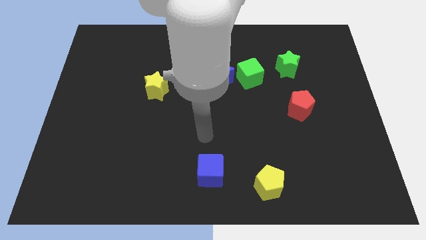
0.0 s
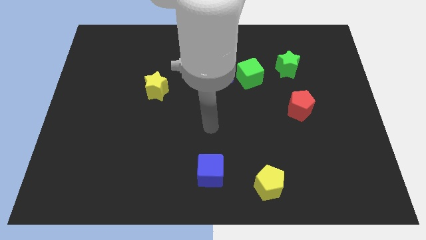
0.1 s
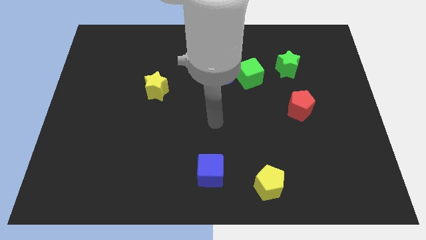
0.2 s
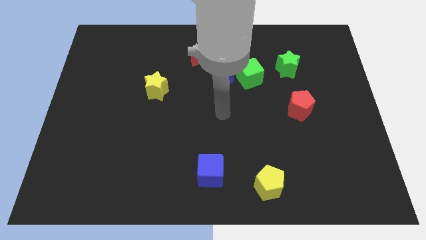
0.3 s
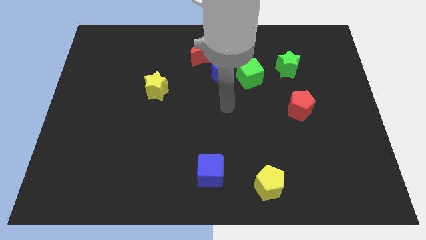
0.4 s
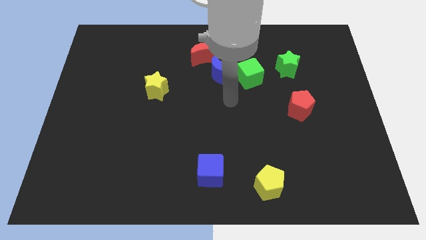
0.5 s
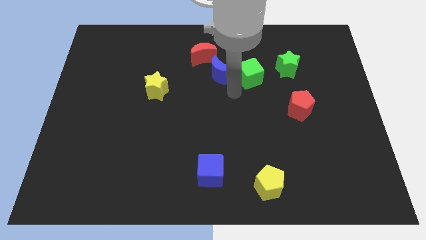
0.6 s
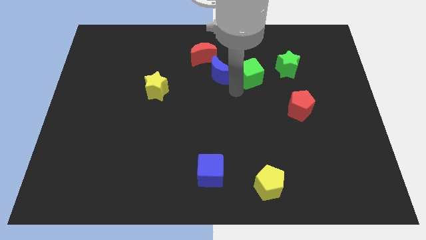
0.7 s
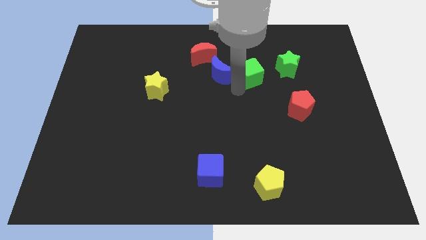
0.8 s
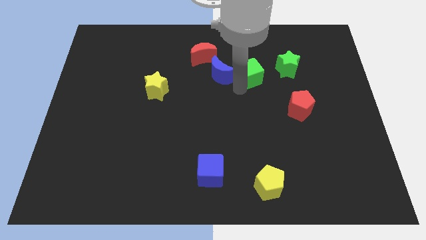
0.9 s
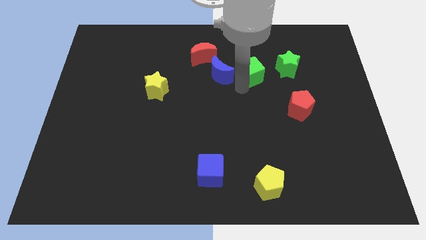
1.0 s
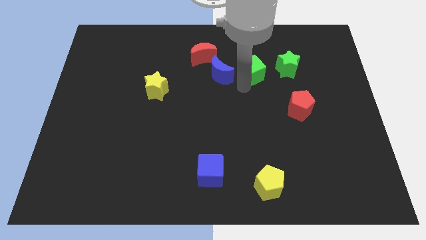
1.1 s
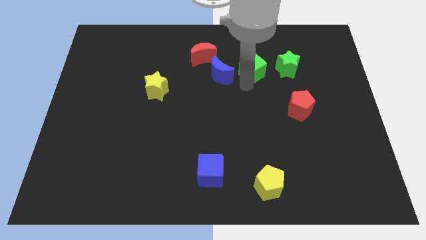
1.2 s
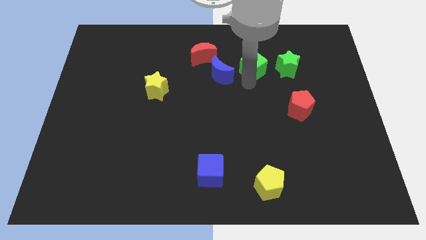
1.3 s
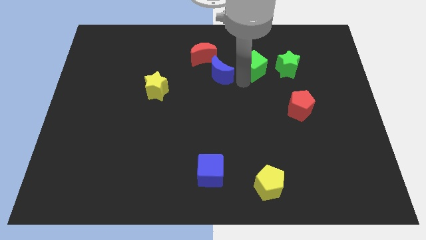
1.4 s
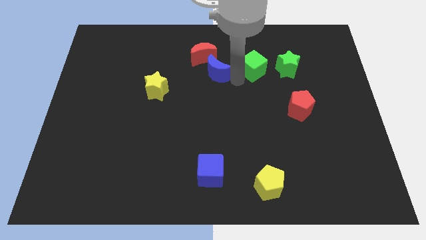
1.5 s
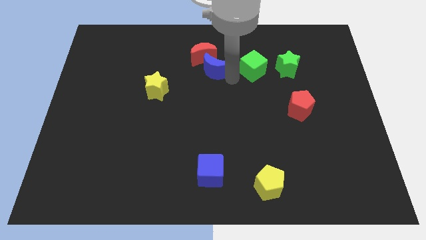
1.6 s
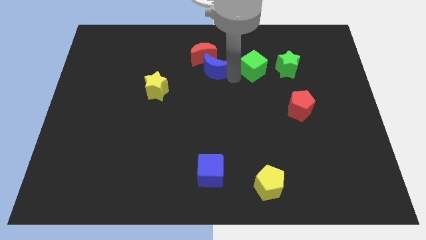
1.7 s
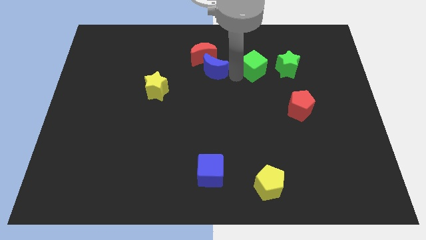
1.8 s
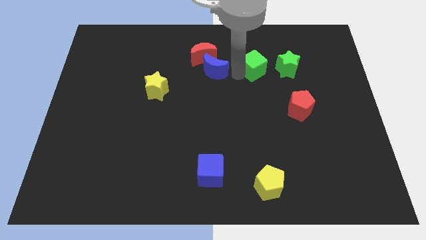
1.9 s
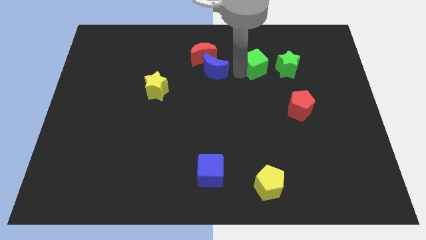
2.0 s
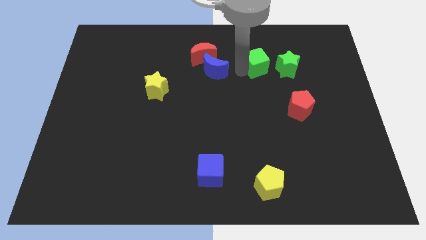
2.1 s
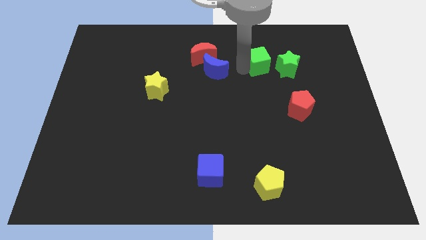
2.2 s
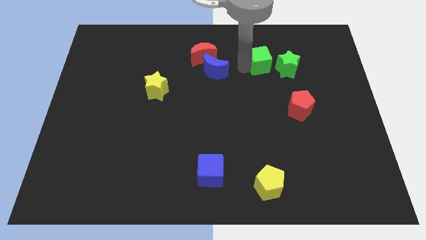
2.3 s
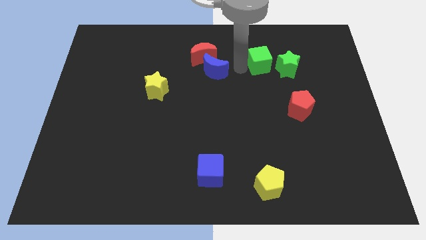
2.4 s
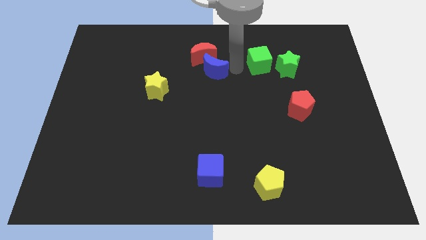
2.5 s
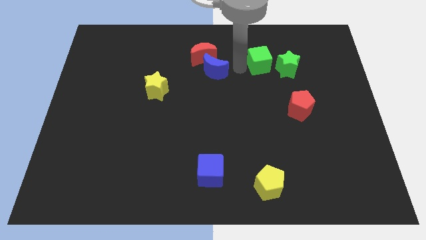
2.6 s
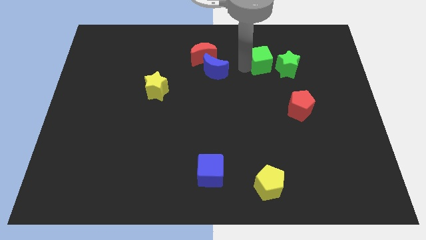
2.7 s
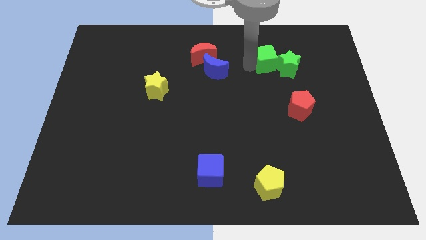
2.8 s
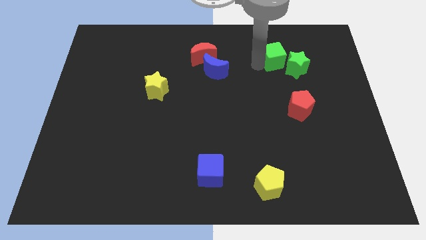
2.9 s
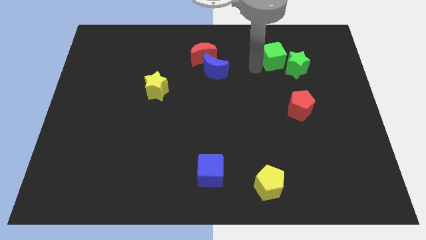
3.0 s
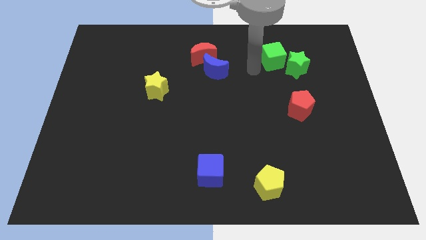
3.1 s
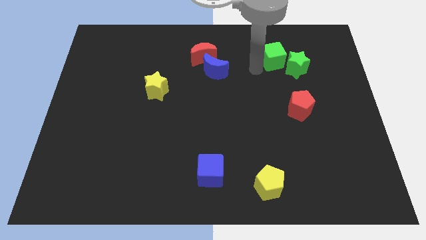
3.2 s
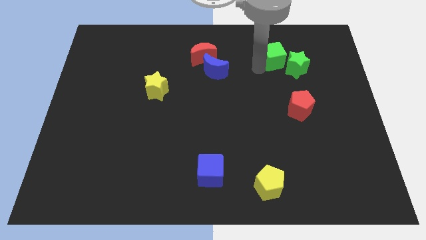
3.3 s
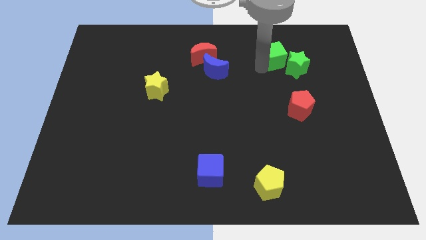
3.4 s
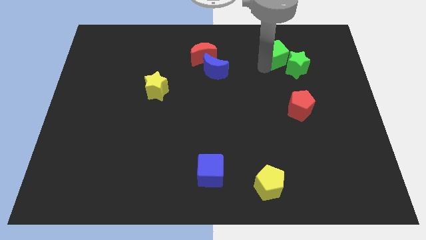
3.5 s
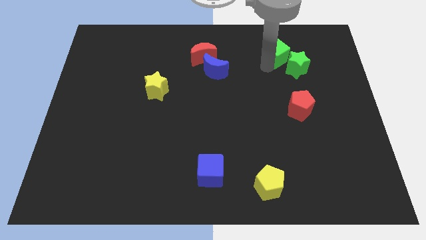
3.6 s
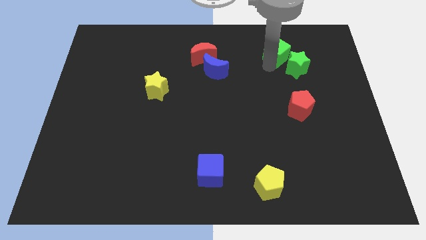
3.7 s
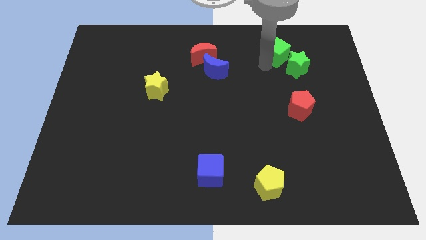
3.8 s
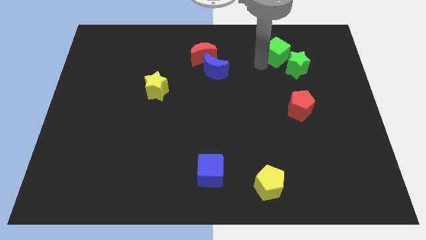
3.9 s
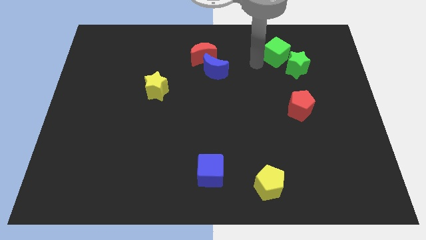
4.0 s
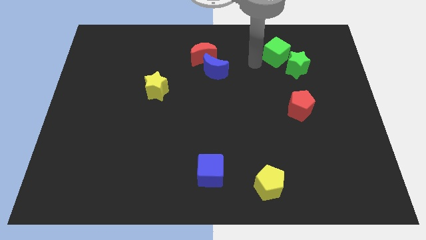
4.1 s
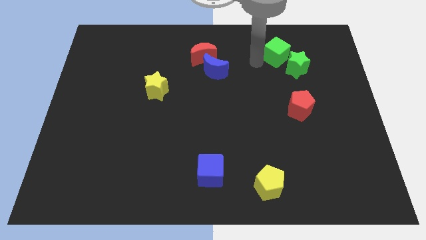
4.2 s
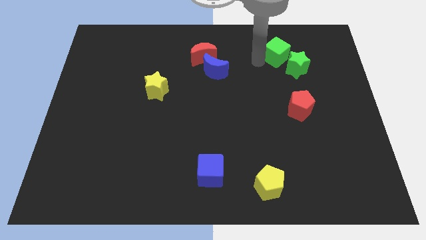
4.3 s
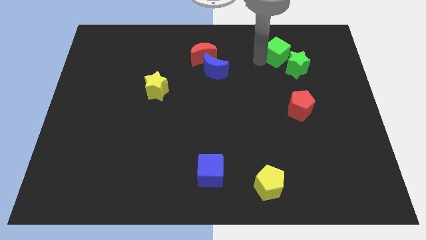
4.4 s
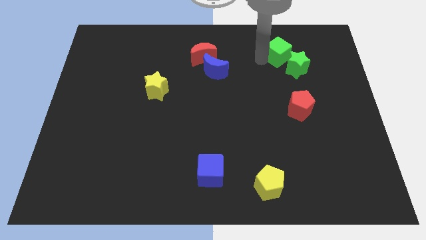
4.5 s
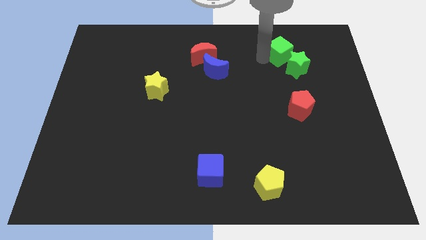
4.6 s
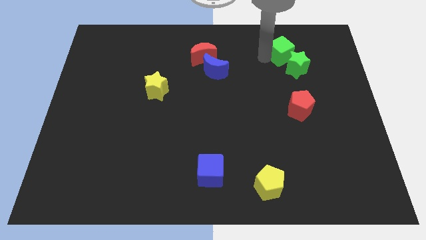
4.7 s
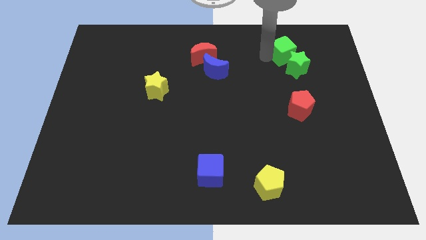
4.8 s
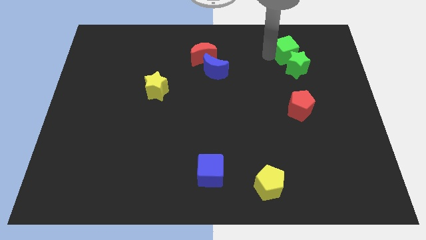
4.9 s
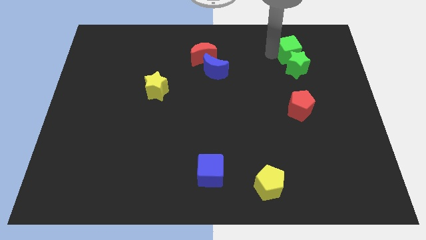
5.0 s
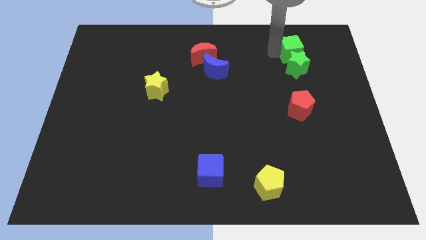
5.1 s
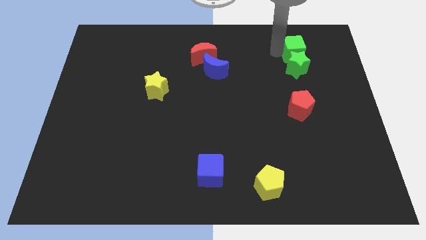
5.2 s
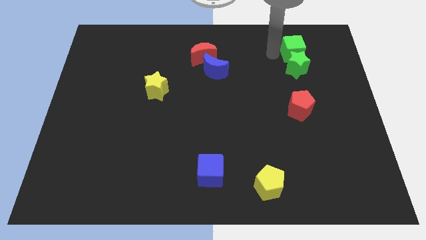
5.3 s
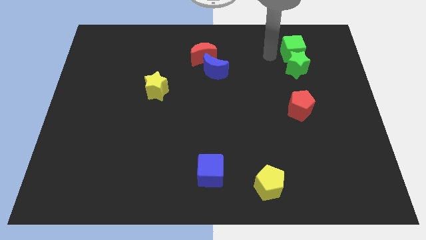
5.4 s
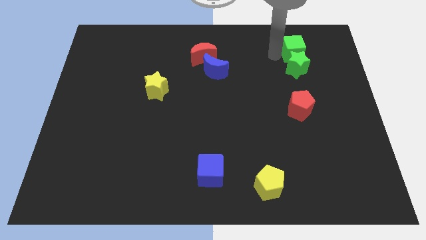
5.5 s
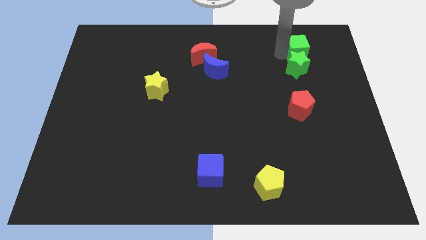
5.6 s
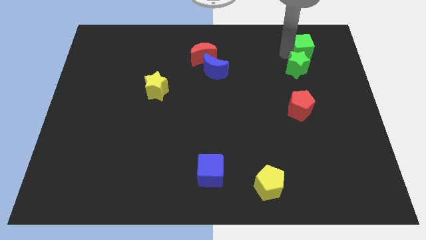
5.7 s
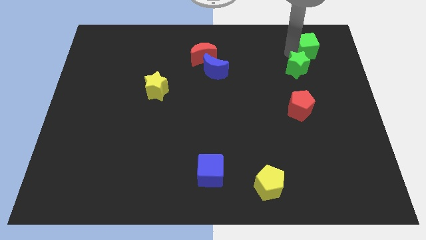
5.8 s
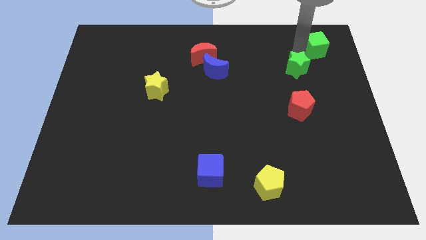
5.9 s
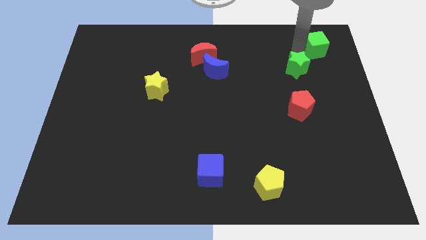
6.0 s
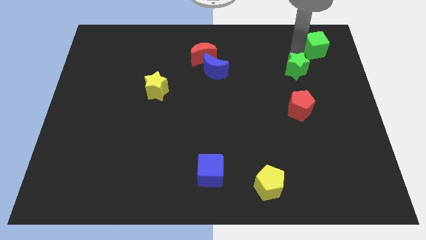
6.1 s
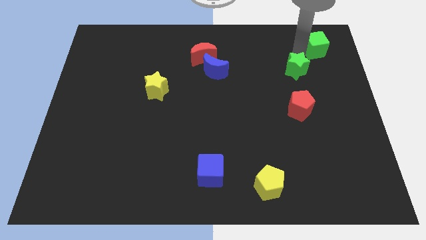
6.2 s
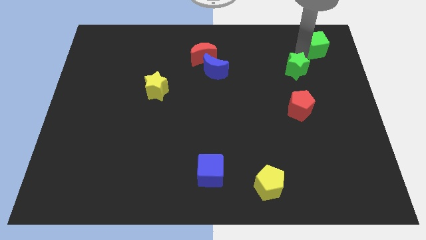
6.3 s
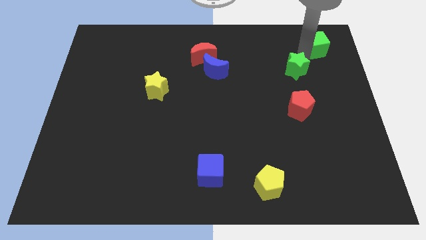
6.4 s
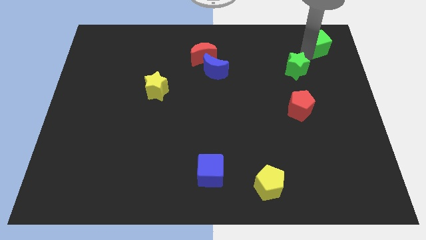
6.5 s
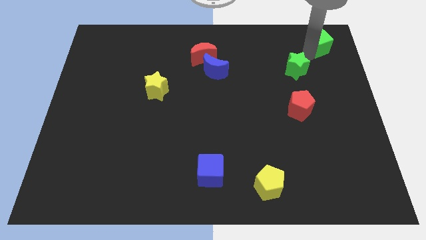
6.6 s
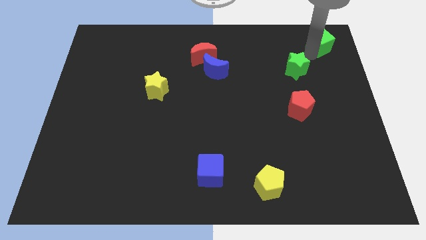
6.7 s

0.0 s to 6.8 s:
slide the green cube to the top right corner

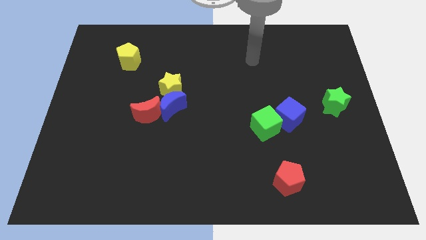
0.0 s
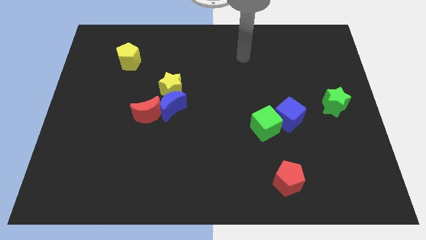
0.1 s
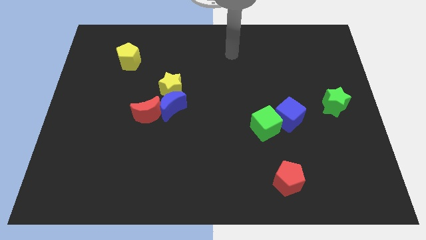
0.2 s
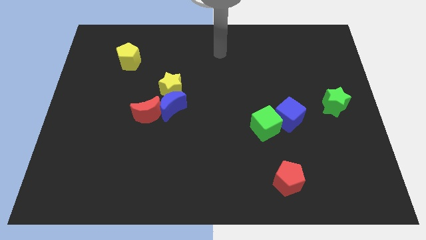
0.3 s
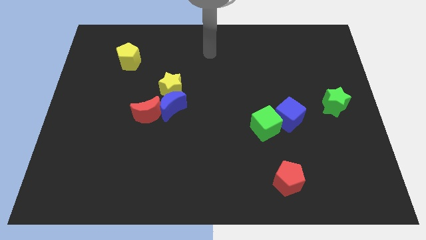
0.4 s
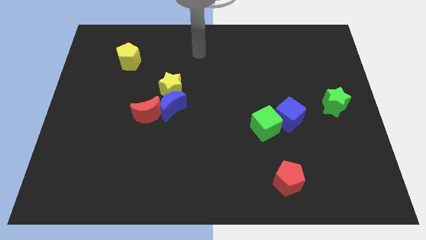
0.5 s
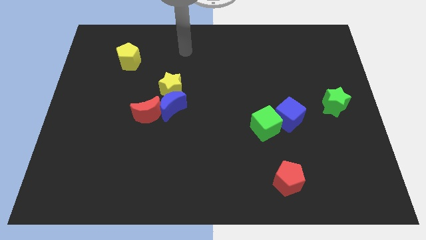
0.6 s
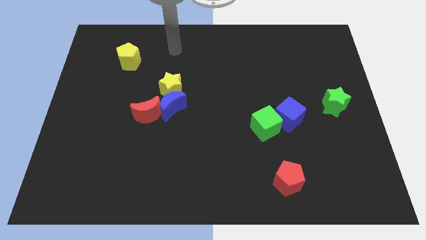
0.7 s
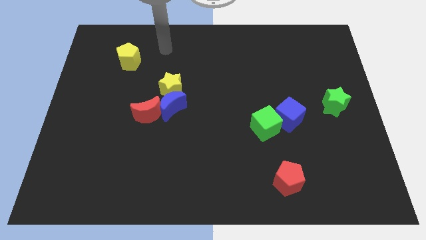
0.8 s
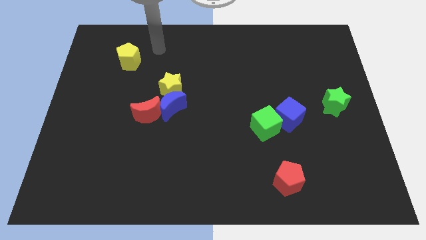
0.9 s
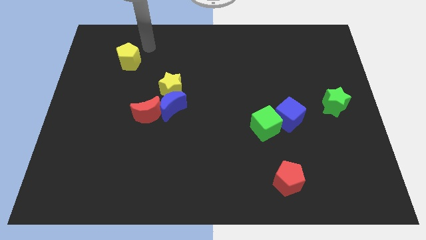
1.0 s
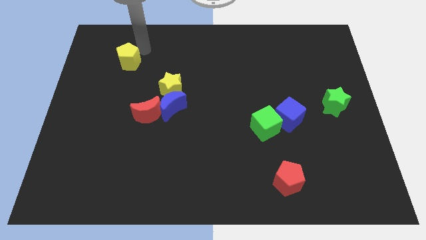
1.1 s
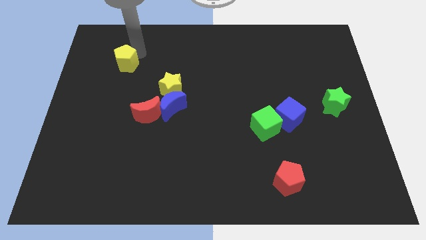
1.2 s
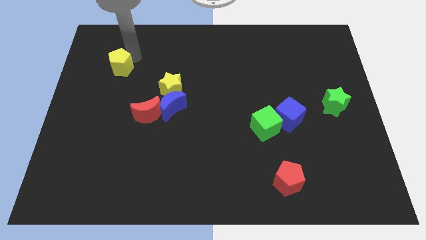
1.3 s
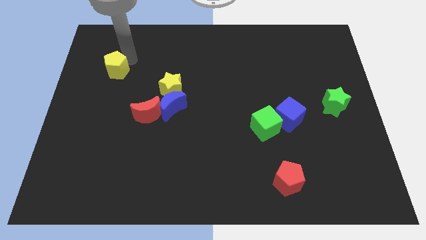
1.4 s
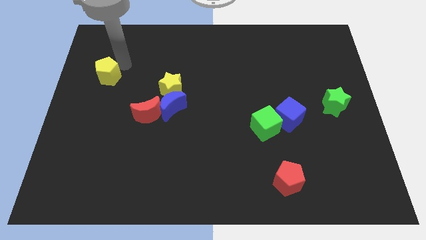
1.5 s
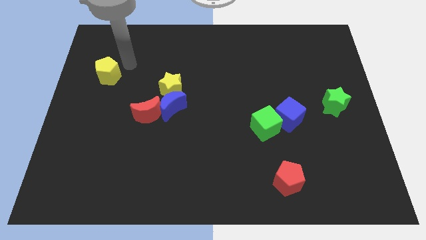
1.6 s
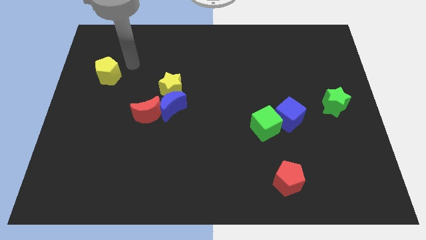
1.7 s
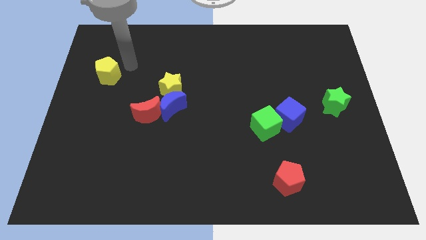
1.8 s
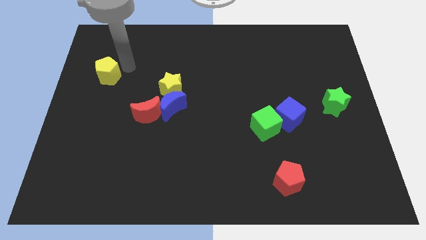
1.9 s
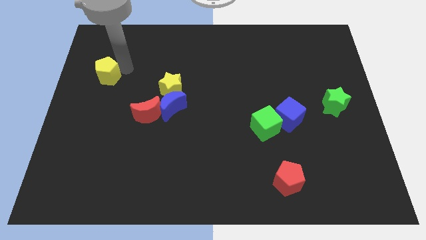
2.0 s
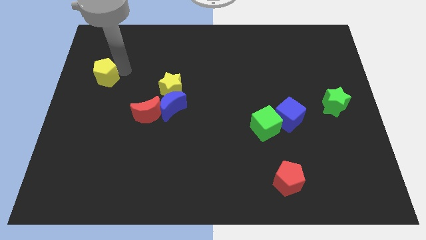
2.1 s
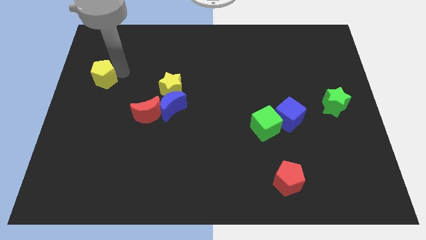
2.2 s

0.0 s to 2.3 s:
slide the yellow pentagon to the left side of the board
